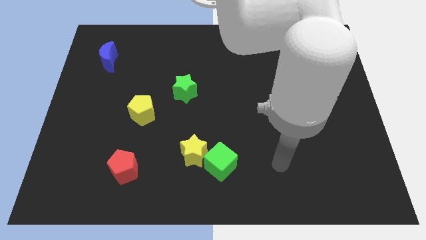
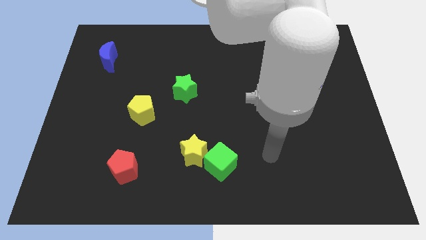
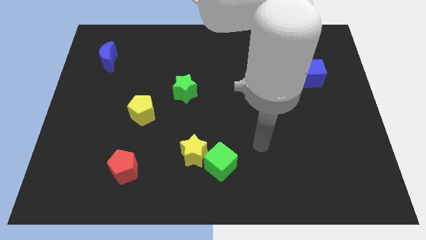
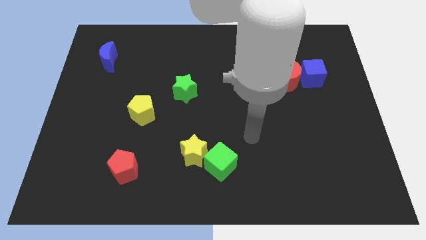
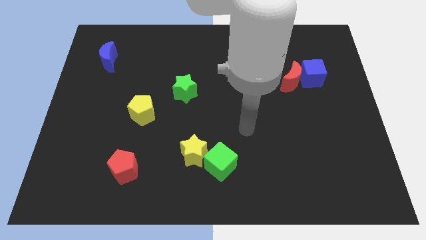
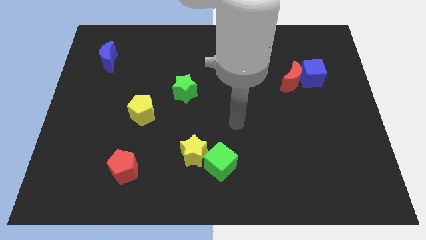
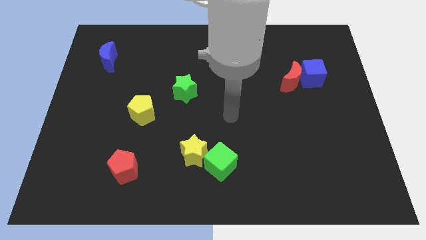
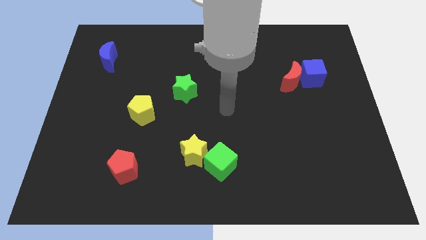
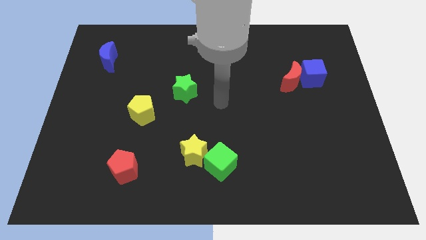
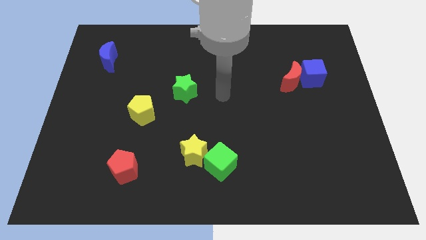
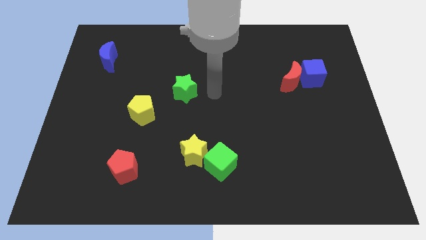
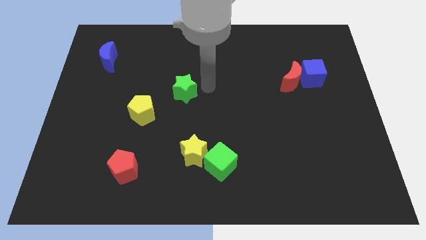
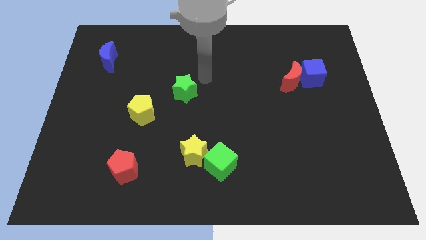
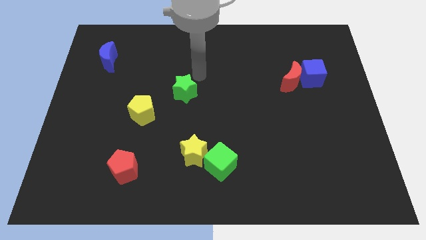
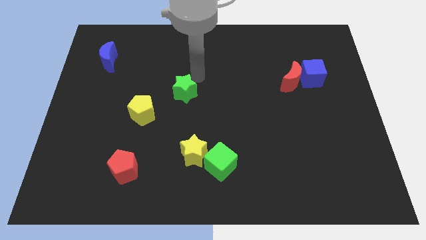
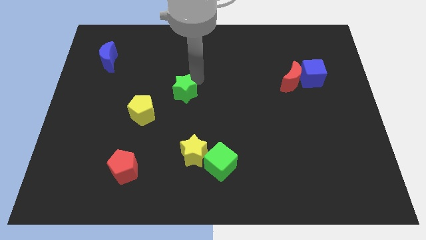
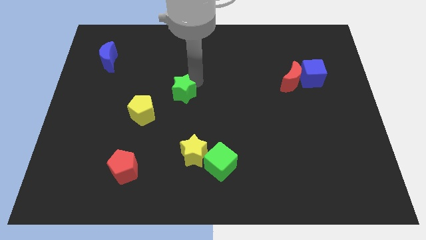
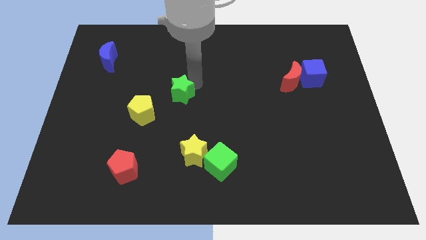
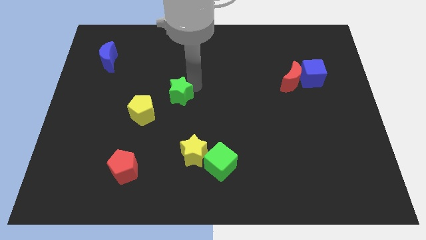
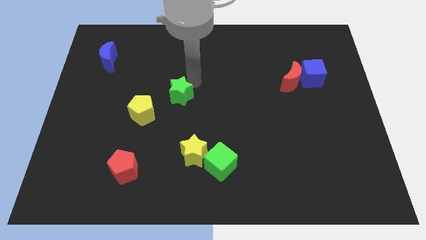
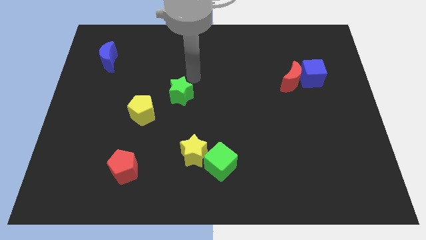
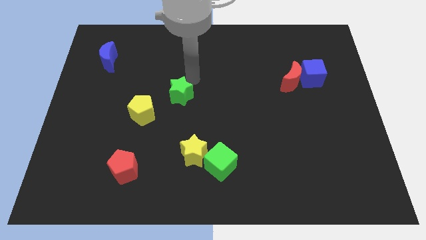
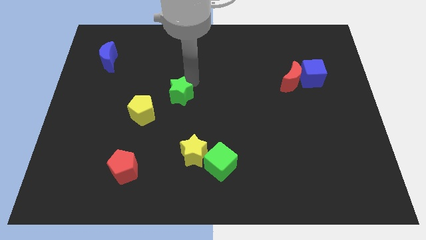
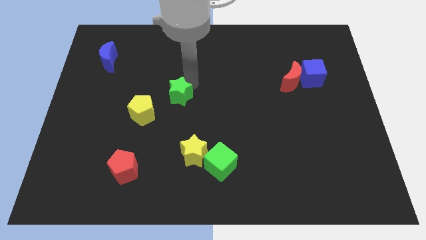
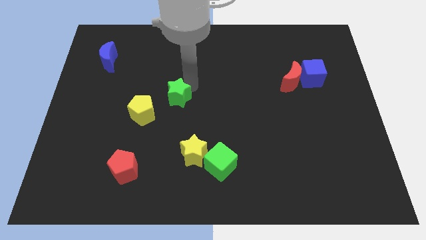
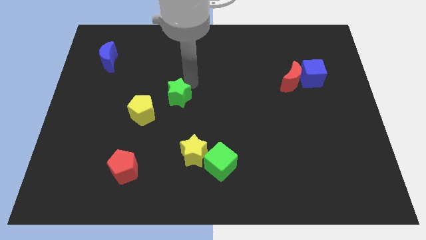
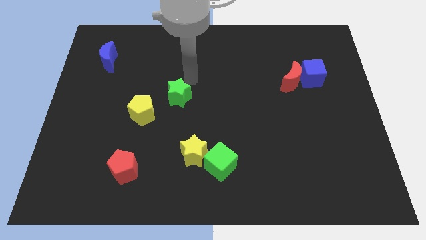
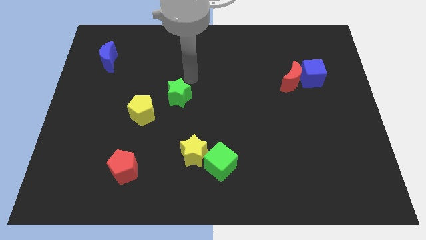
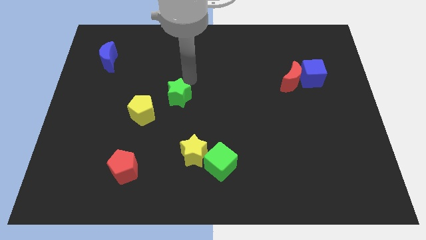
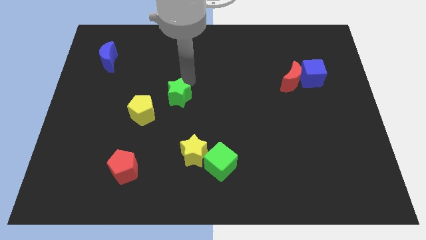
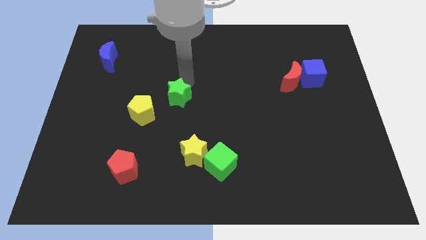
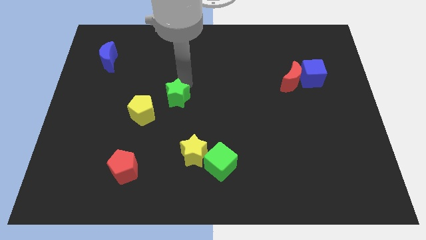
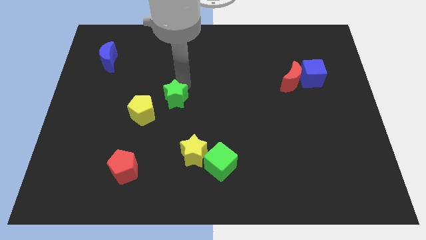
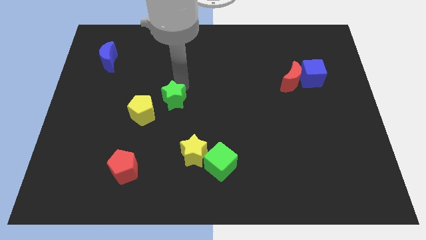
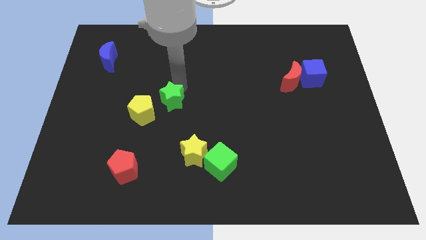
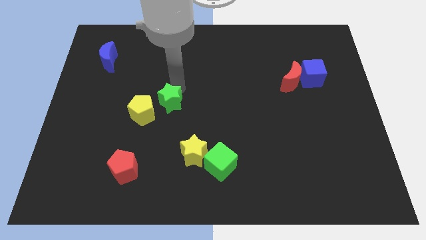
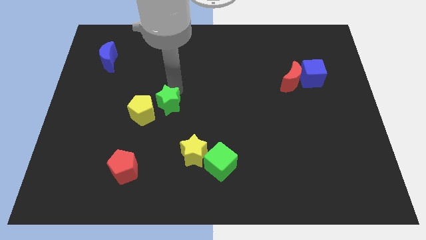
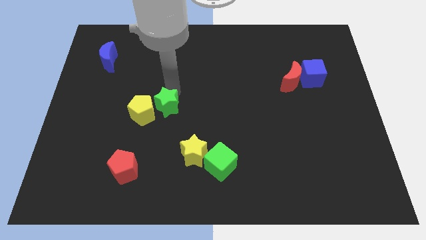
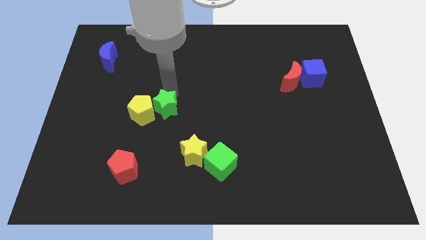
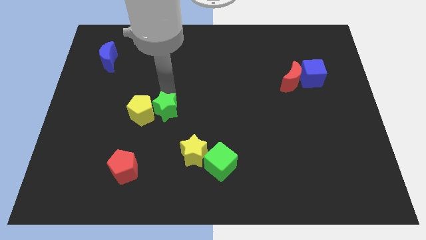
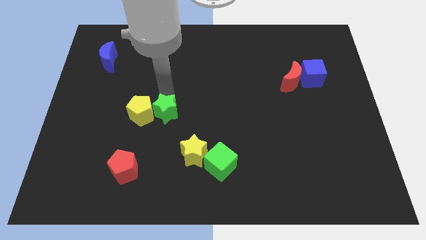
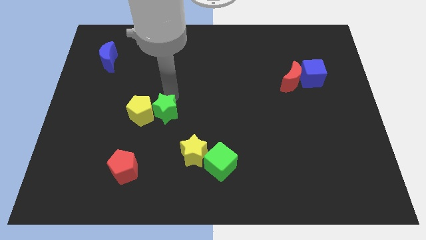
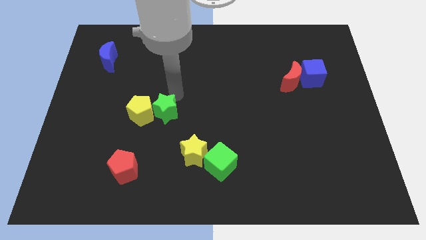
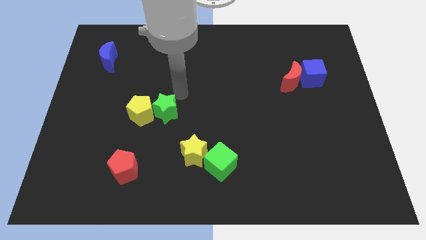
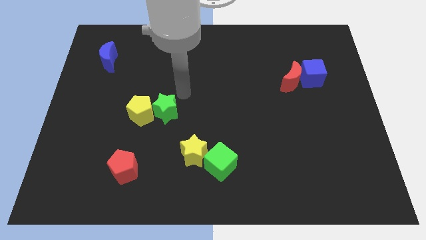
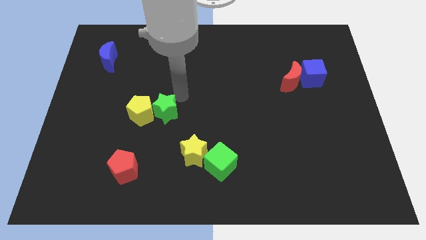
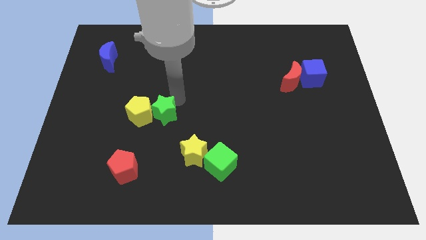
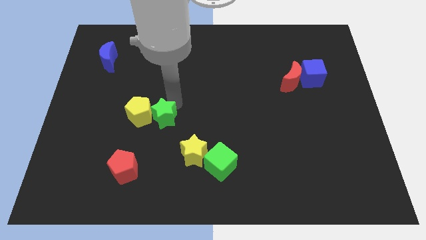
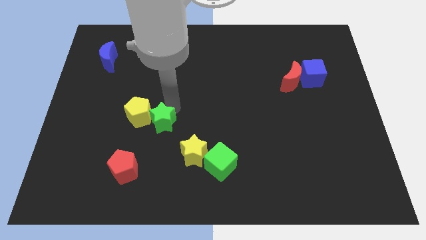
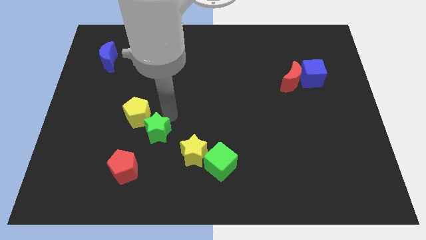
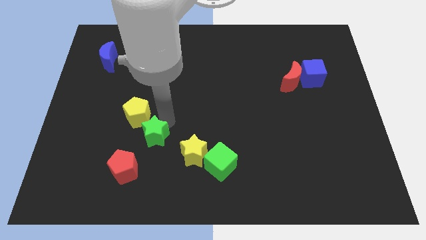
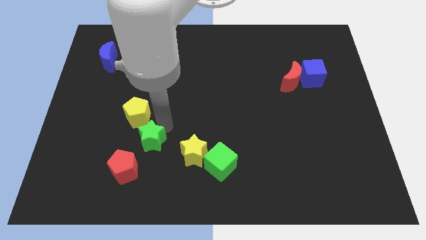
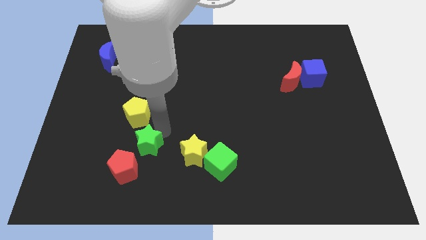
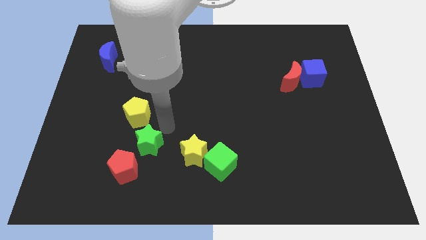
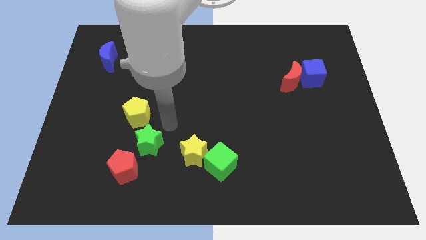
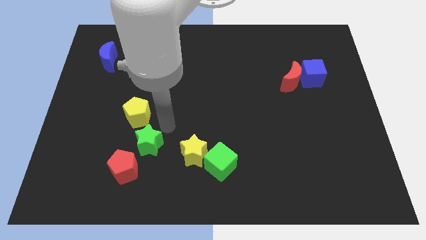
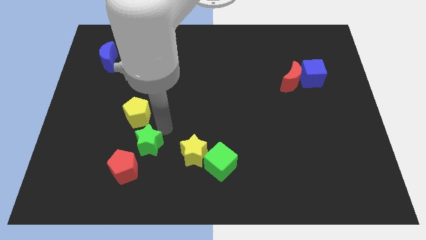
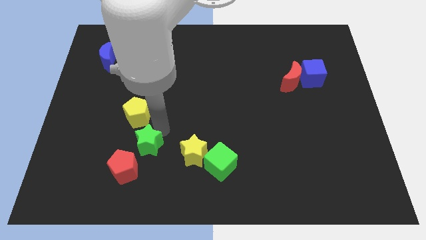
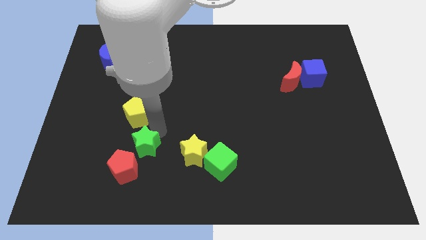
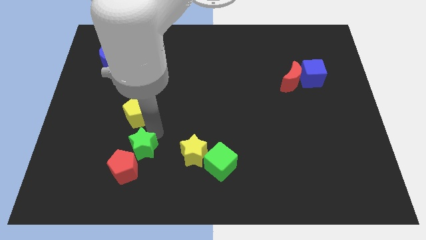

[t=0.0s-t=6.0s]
put the green star close to the red pentagon

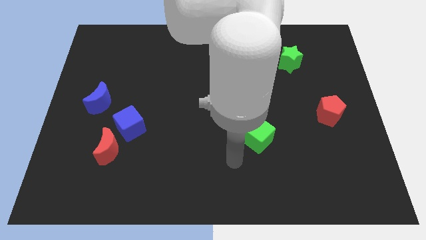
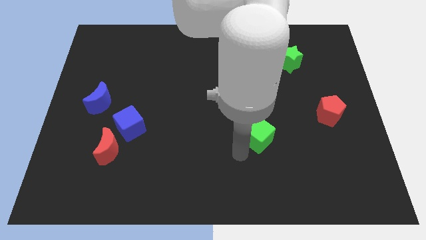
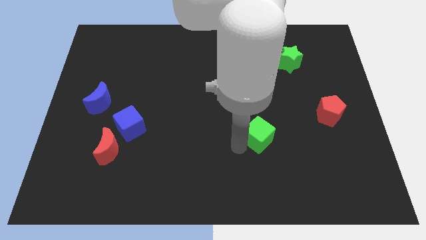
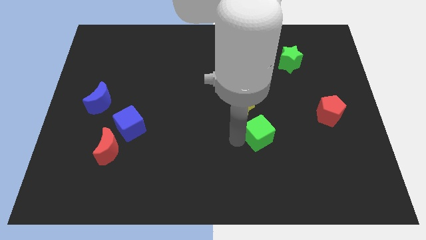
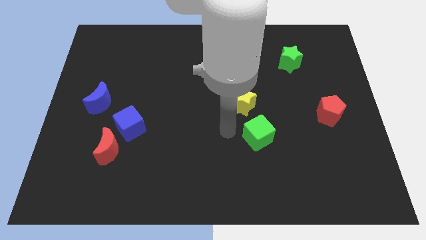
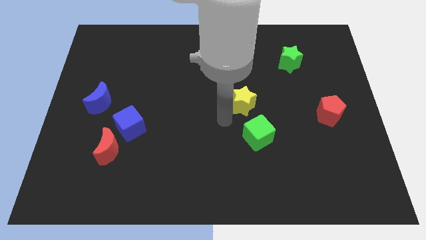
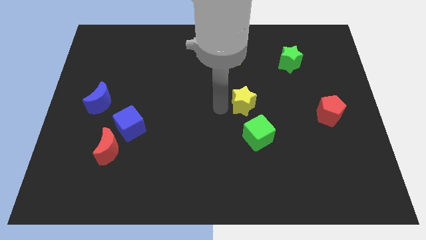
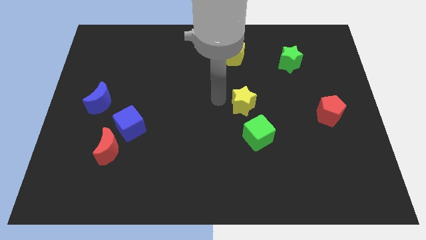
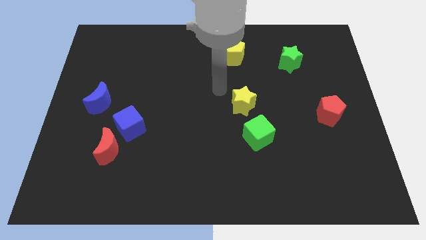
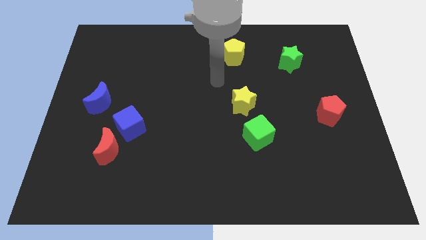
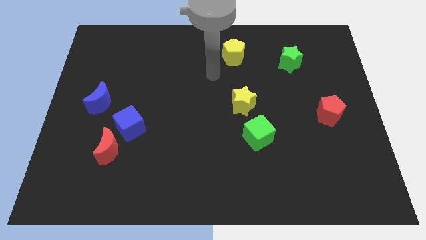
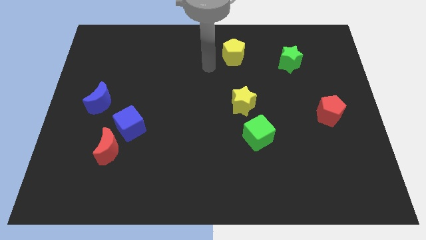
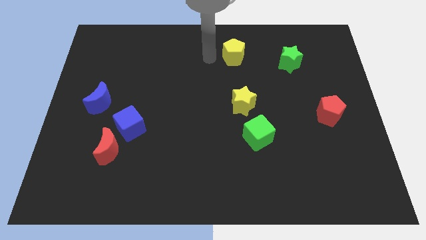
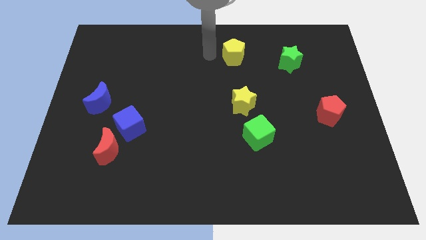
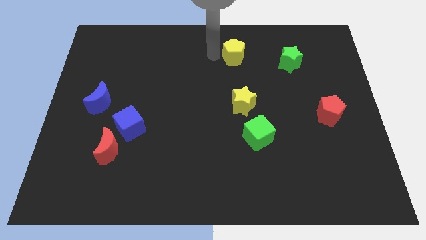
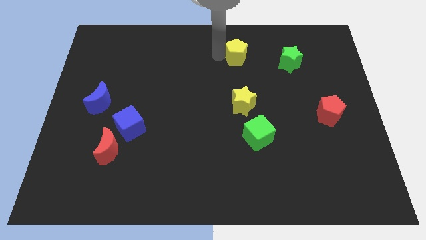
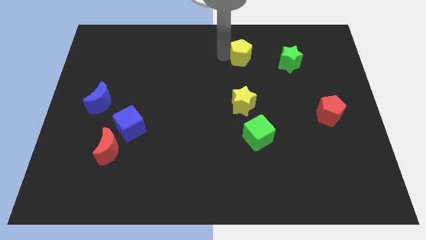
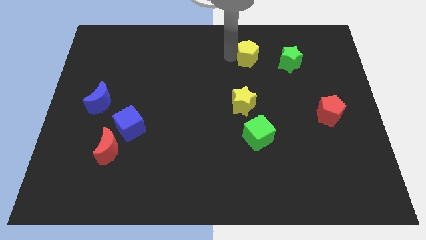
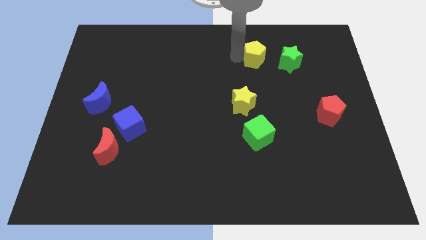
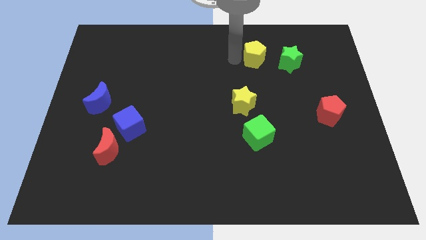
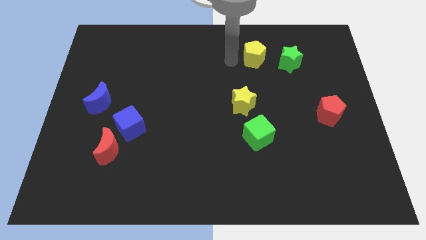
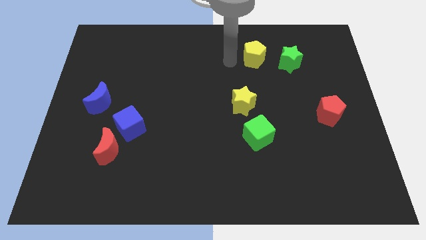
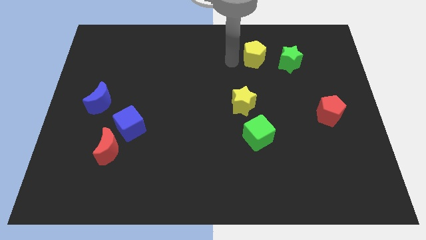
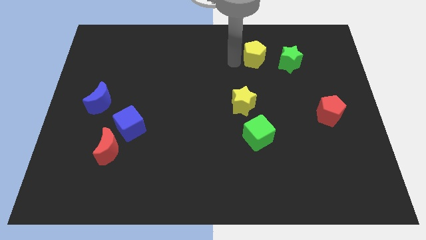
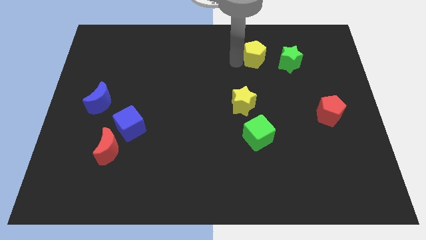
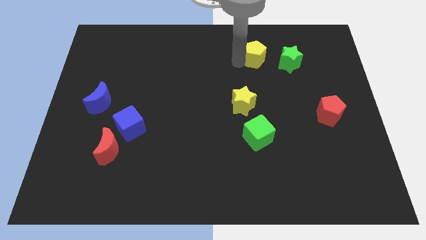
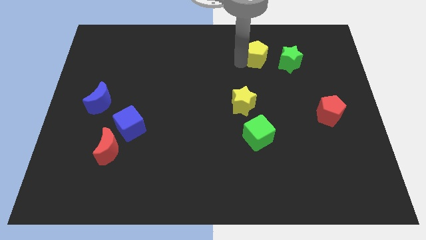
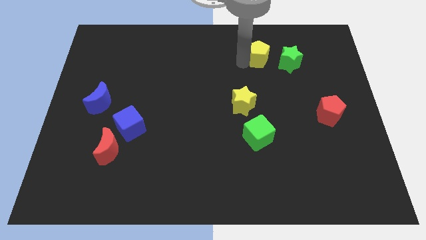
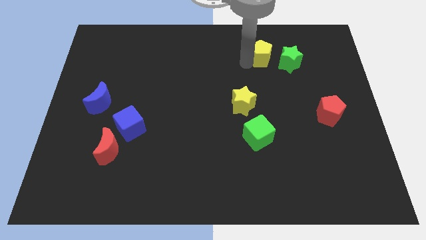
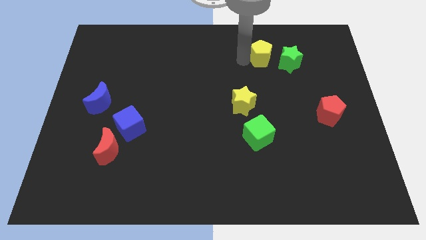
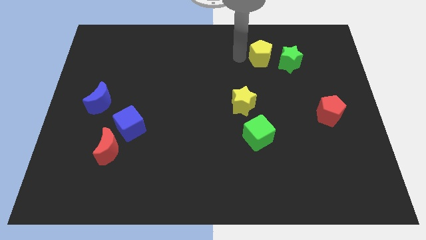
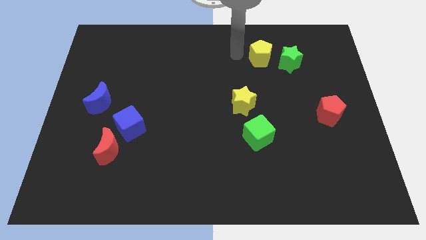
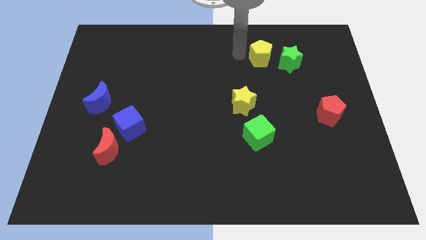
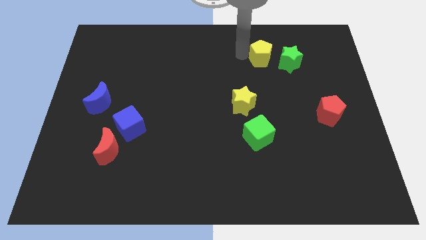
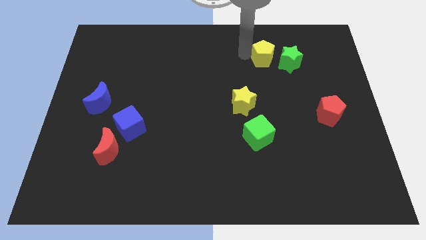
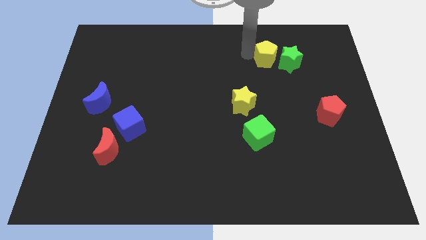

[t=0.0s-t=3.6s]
put the yellow pentagon close to the green star
